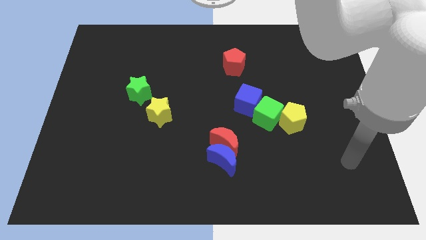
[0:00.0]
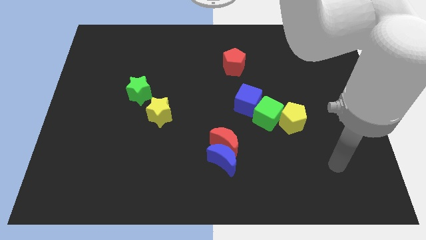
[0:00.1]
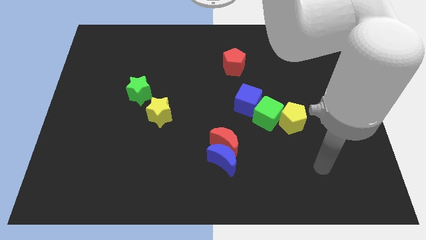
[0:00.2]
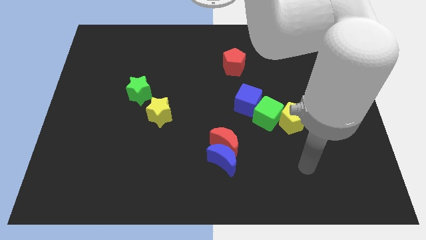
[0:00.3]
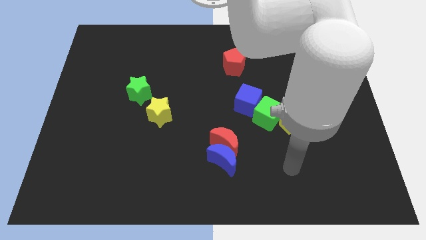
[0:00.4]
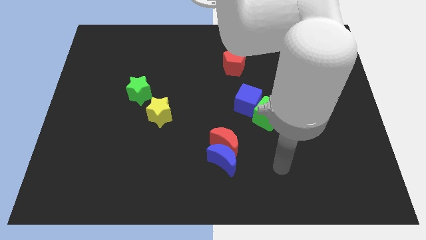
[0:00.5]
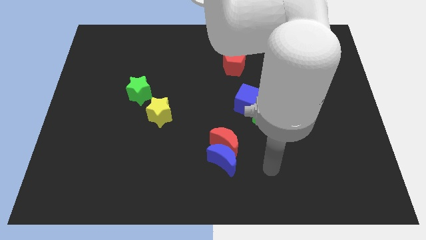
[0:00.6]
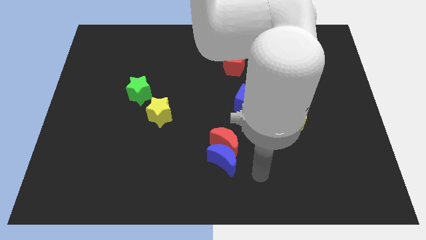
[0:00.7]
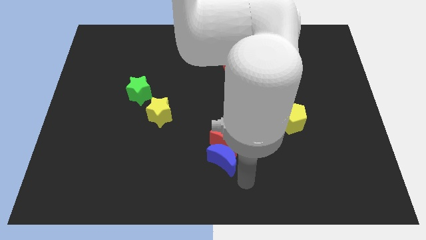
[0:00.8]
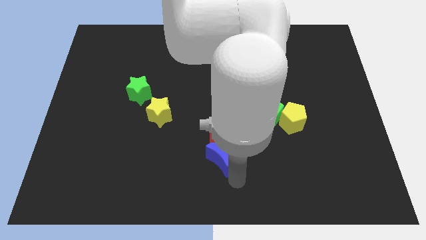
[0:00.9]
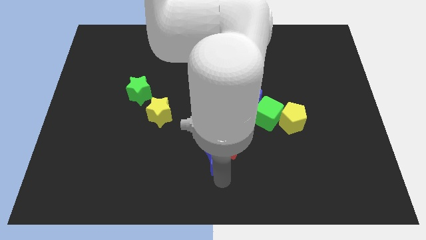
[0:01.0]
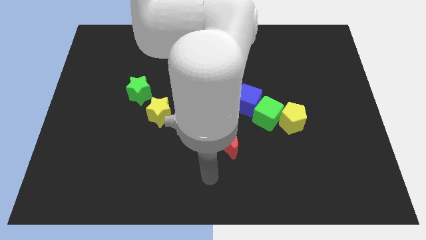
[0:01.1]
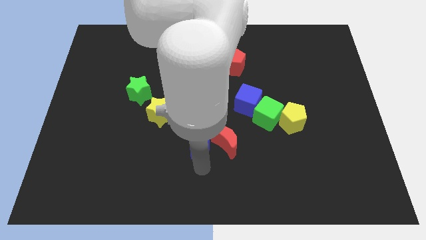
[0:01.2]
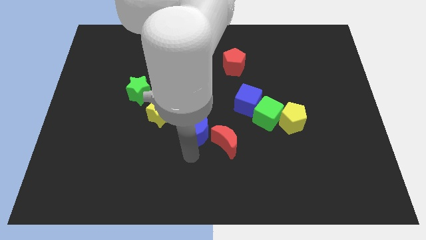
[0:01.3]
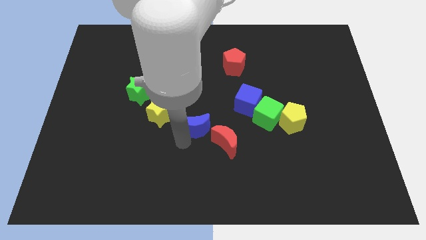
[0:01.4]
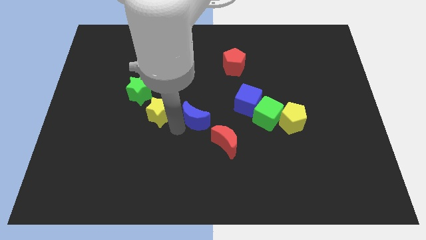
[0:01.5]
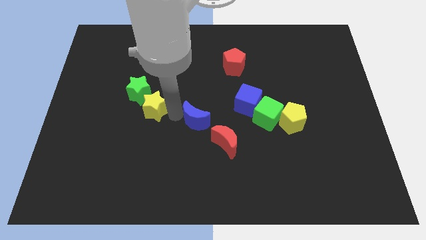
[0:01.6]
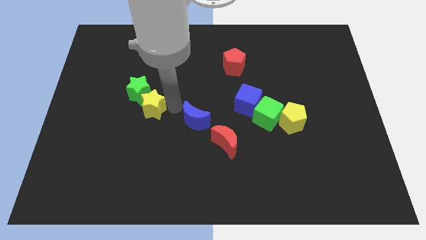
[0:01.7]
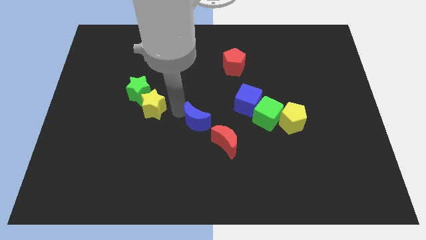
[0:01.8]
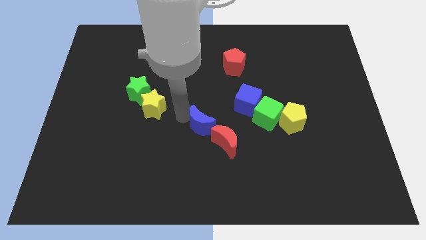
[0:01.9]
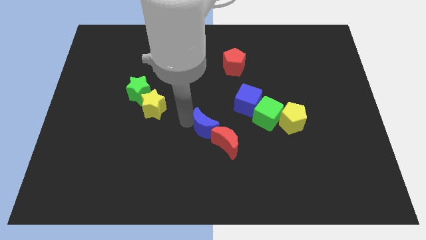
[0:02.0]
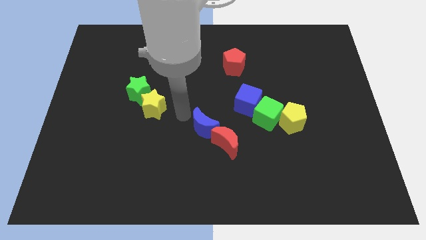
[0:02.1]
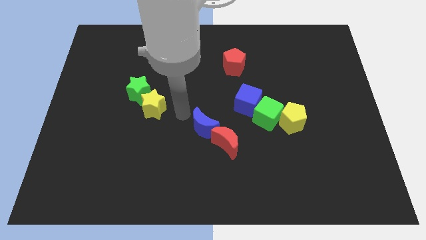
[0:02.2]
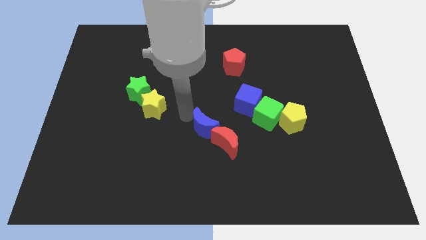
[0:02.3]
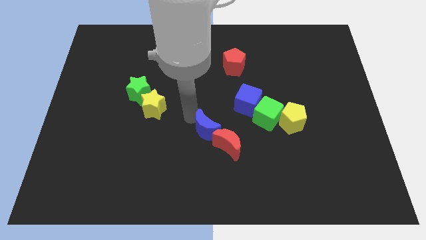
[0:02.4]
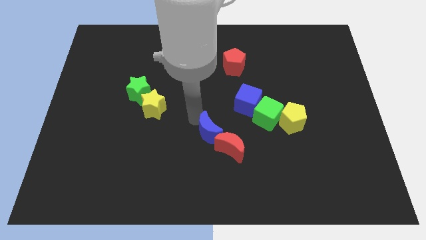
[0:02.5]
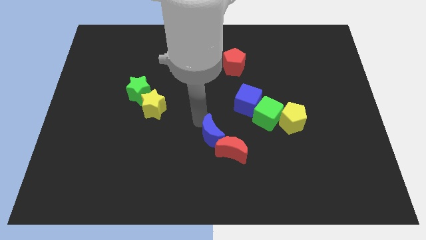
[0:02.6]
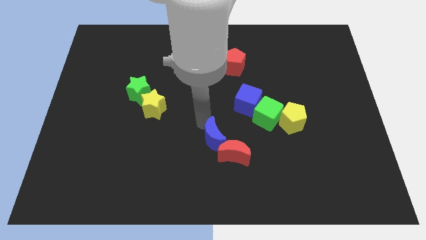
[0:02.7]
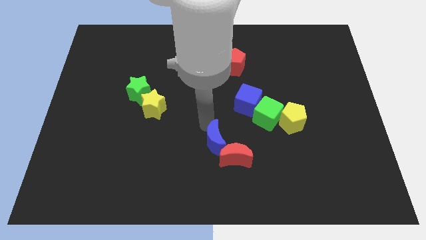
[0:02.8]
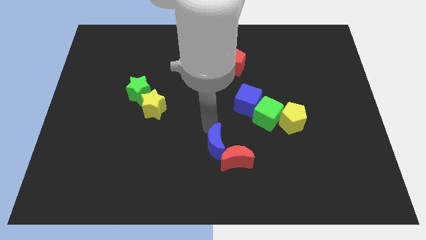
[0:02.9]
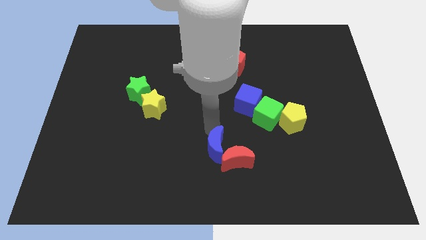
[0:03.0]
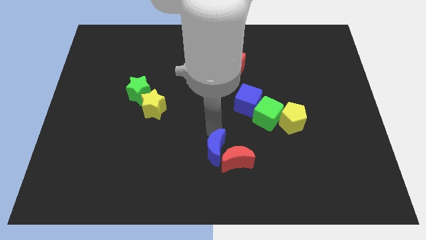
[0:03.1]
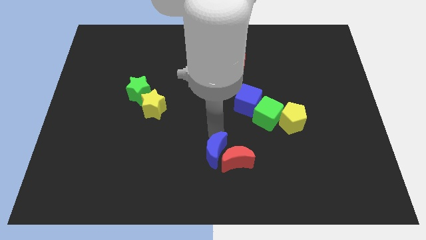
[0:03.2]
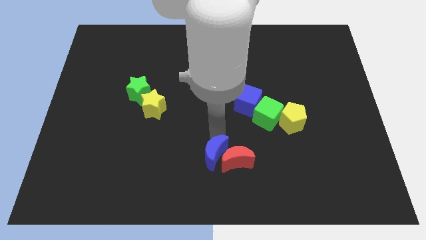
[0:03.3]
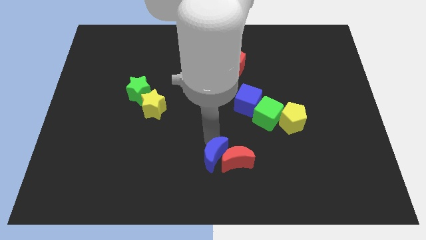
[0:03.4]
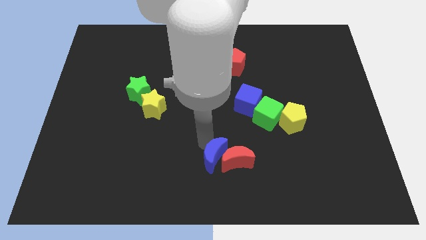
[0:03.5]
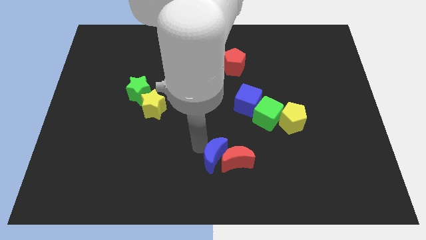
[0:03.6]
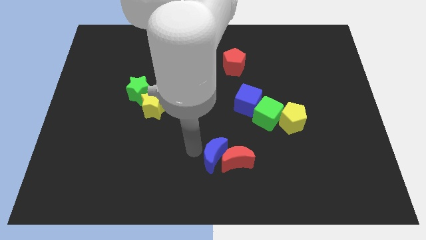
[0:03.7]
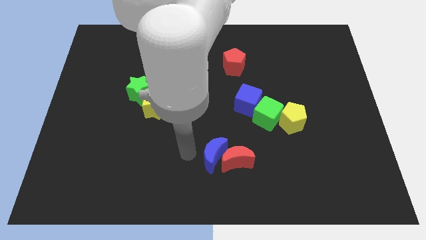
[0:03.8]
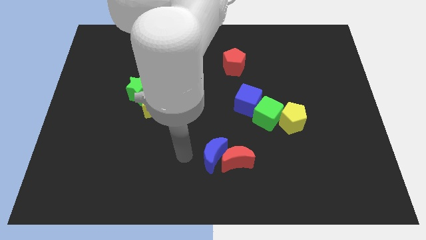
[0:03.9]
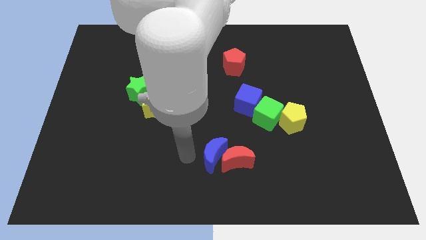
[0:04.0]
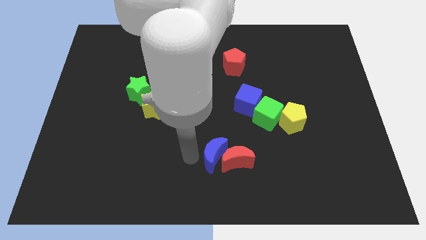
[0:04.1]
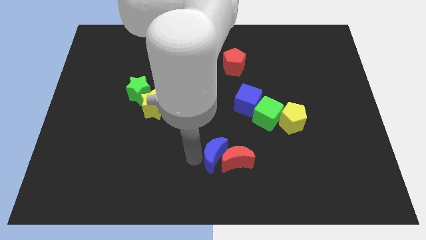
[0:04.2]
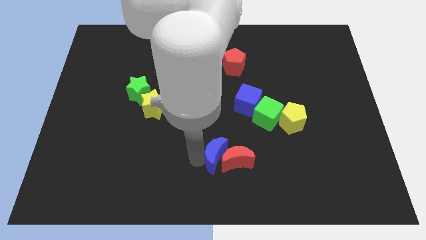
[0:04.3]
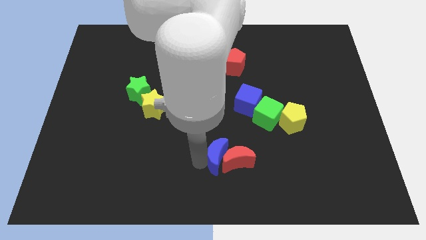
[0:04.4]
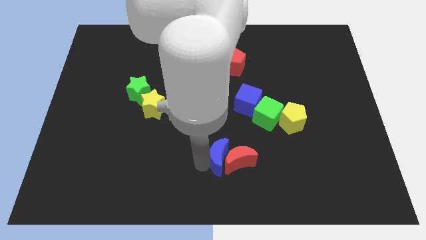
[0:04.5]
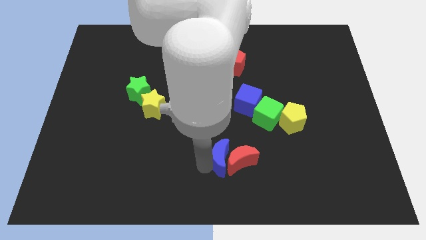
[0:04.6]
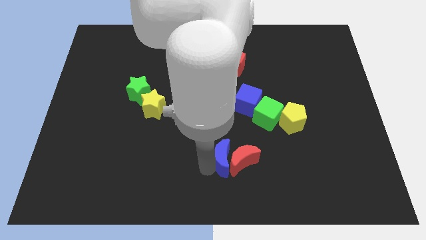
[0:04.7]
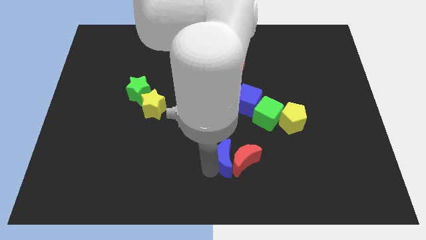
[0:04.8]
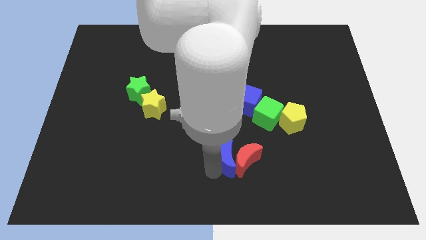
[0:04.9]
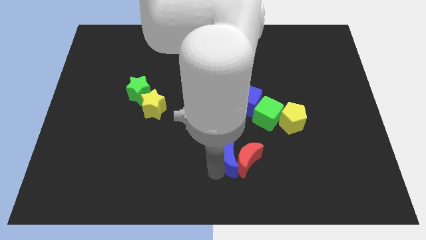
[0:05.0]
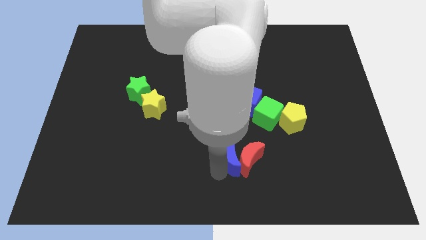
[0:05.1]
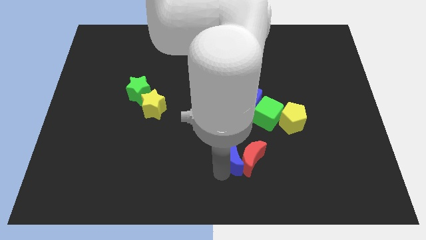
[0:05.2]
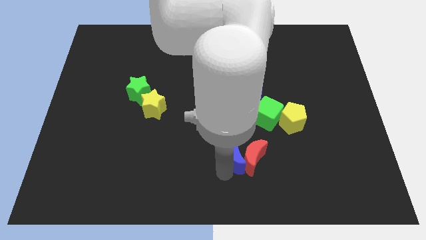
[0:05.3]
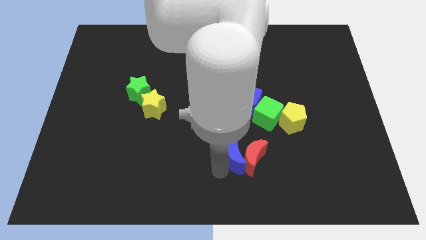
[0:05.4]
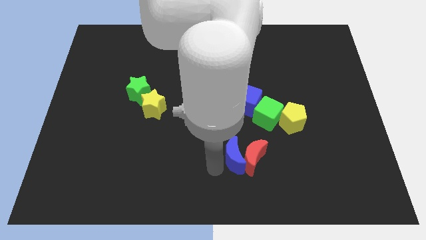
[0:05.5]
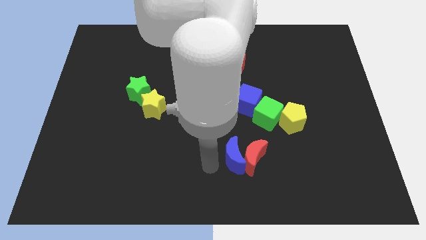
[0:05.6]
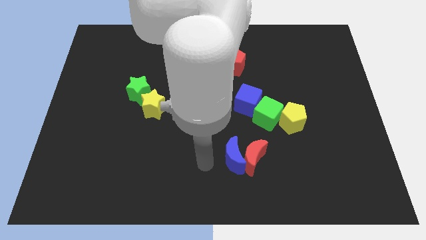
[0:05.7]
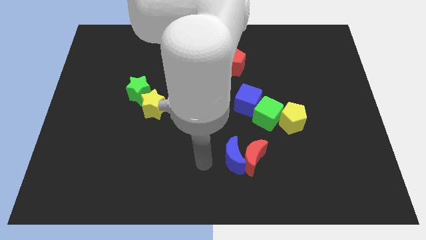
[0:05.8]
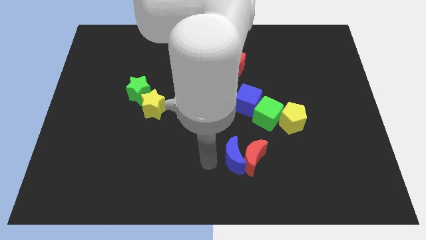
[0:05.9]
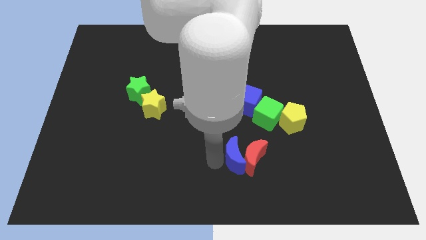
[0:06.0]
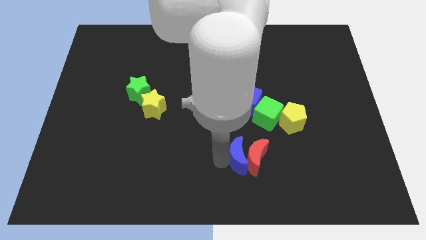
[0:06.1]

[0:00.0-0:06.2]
move the blue moon below the blue cube
